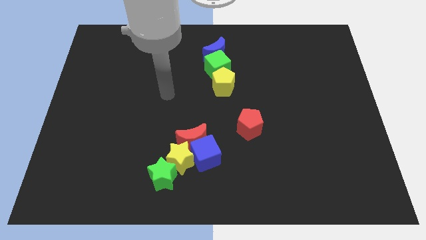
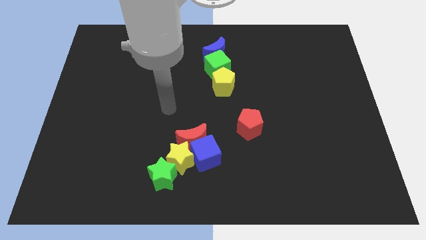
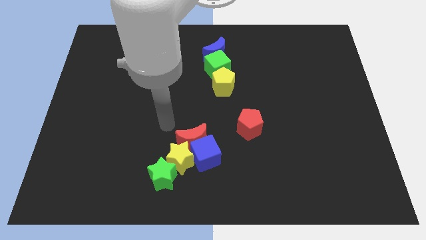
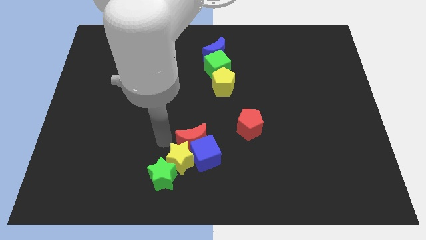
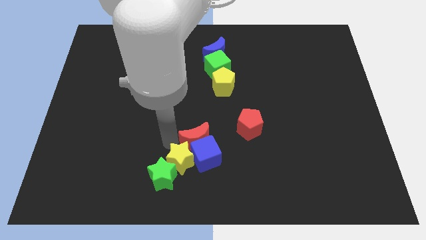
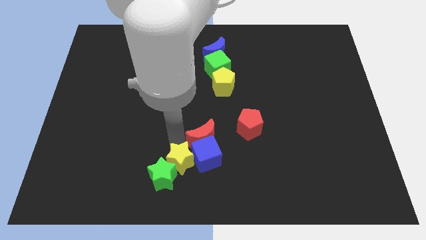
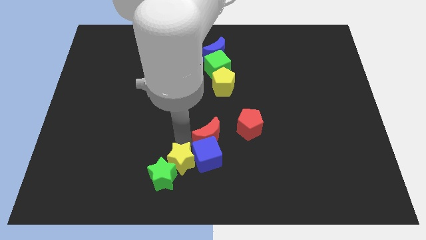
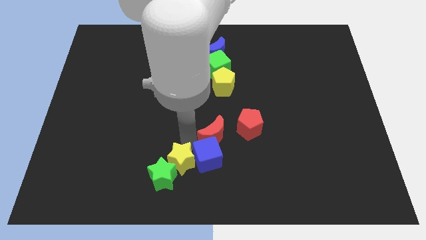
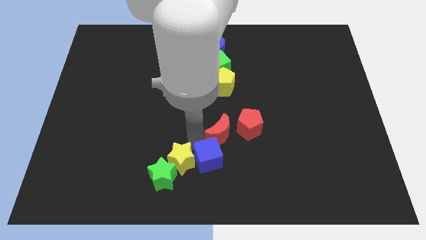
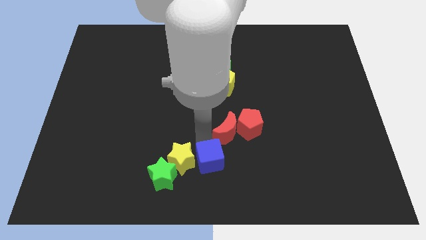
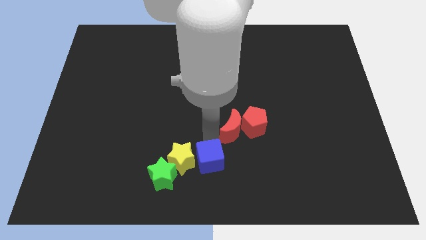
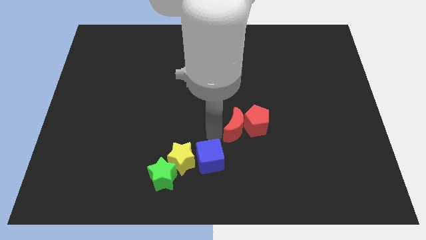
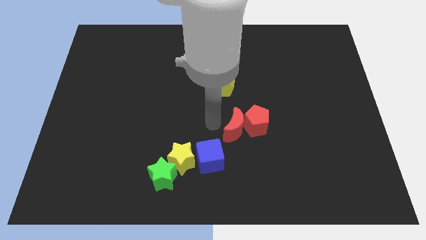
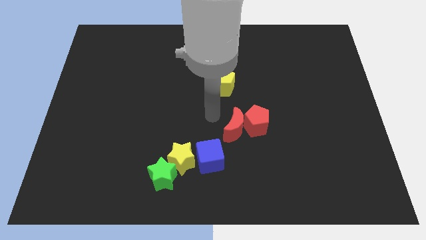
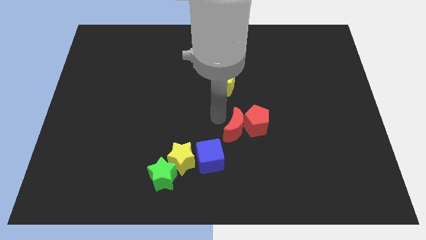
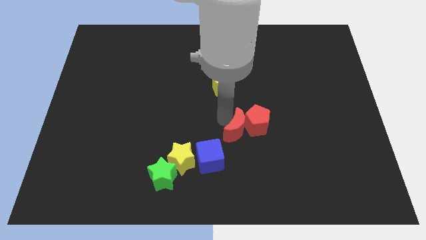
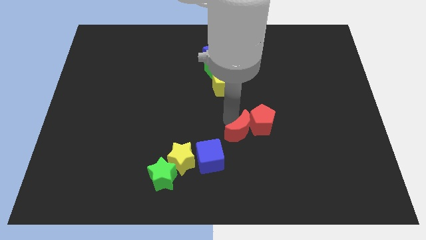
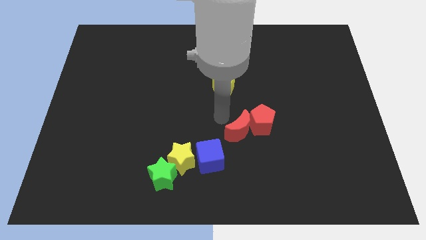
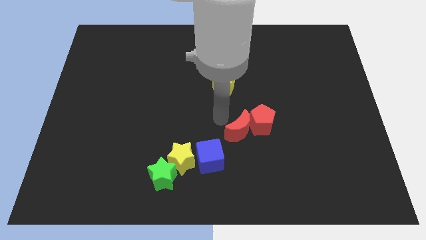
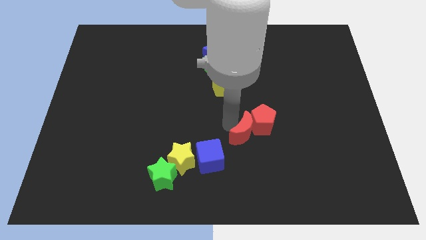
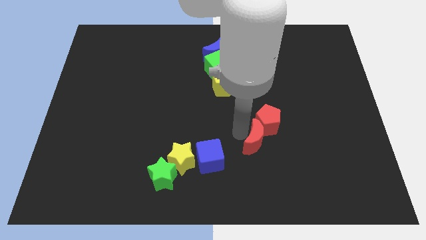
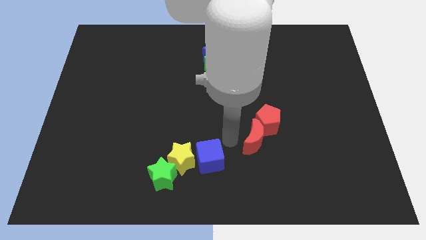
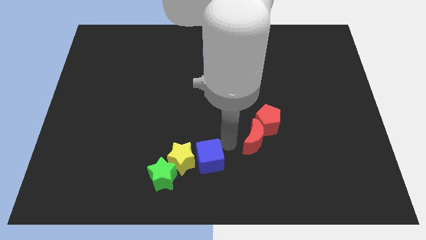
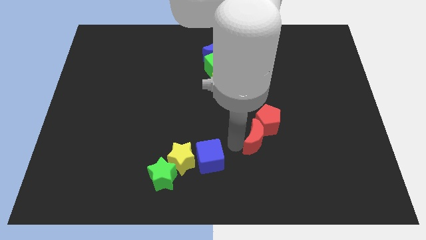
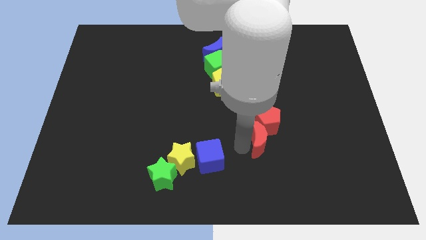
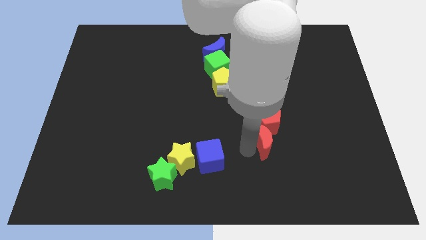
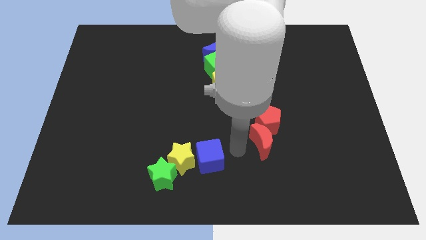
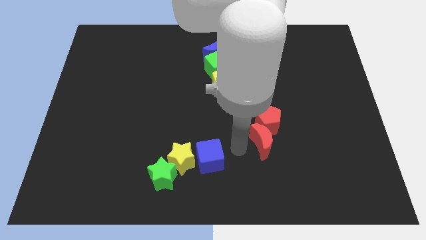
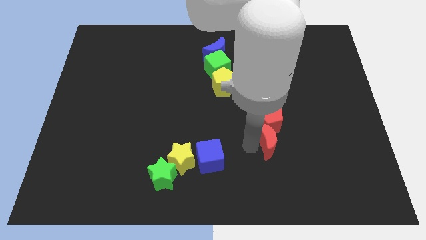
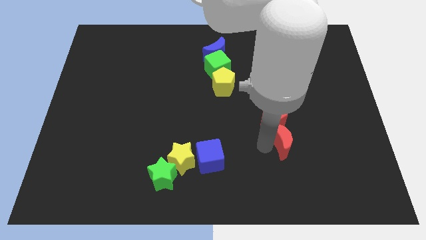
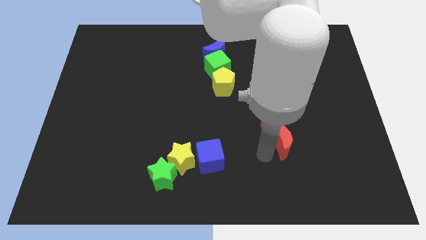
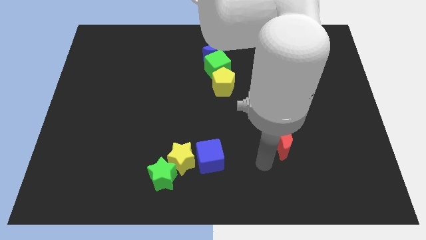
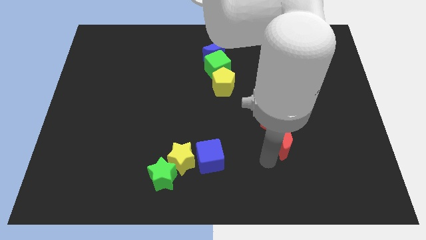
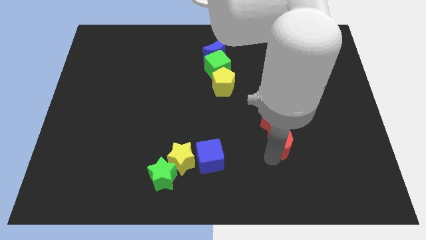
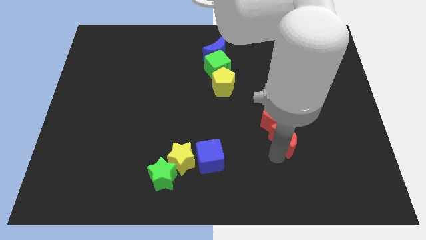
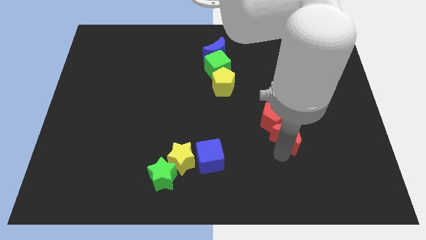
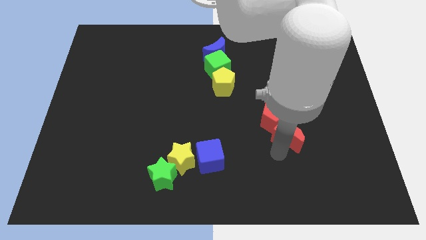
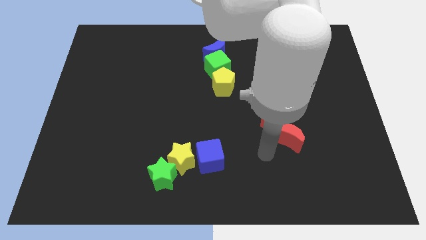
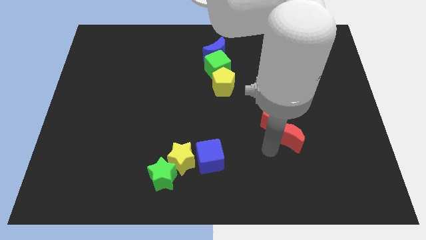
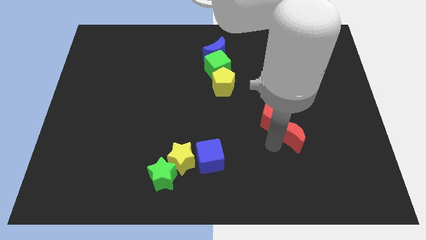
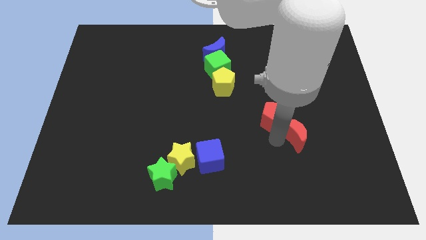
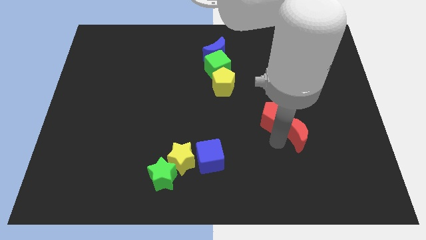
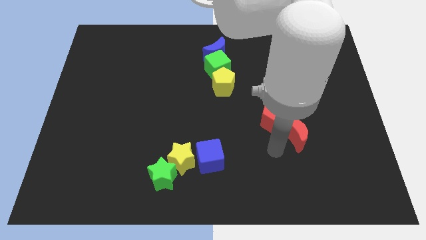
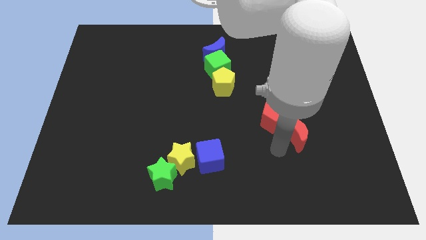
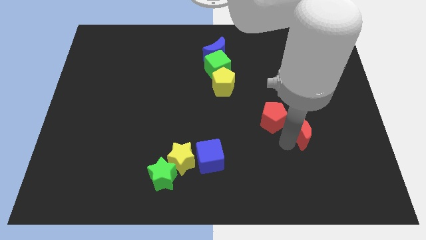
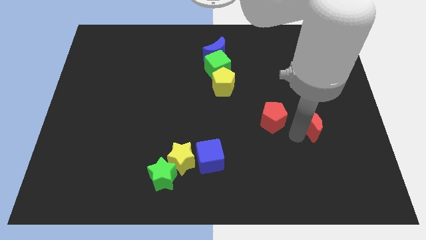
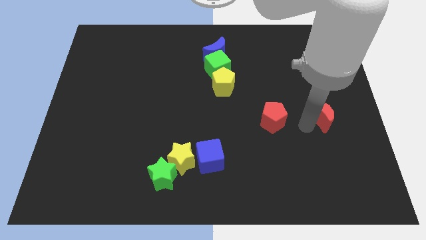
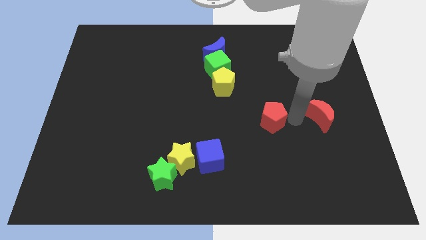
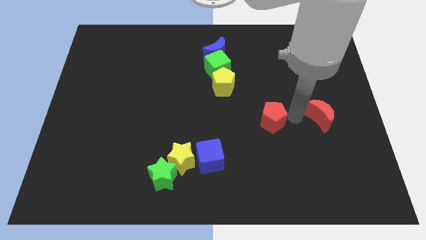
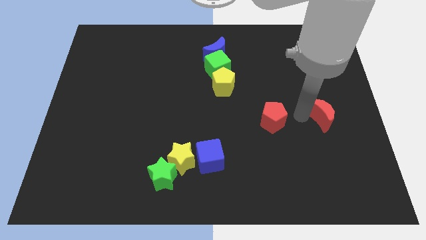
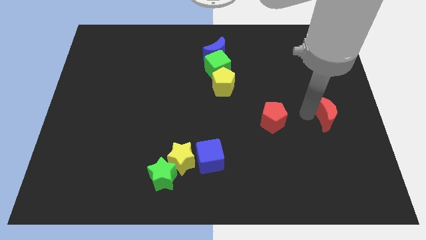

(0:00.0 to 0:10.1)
push the red moon to the right side

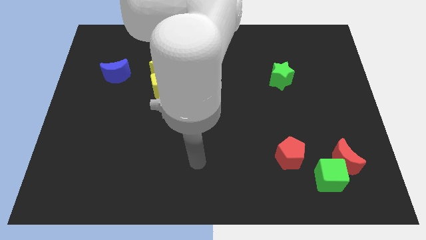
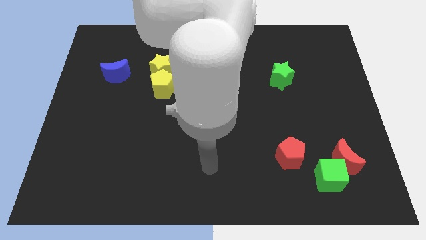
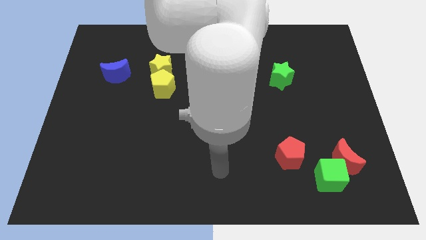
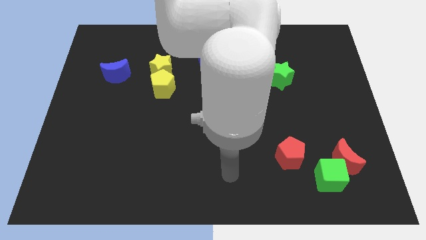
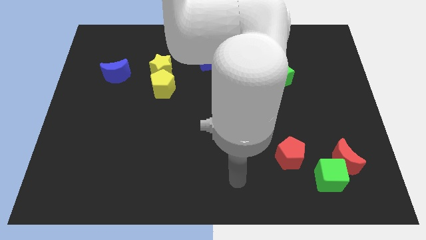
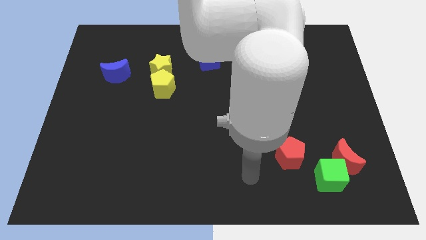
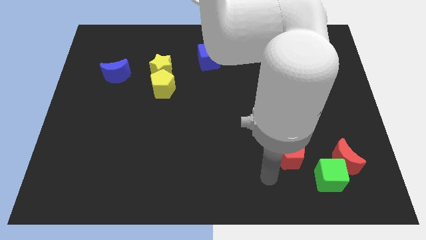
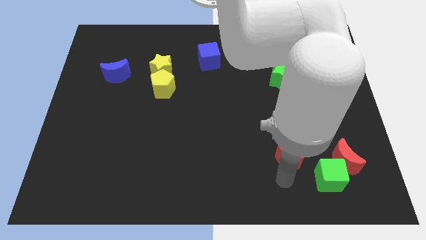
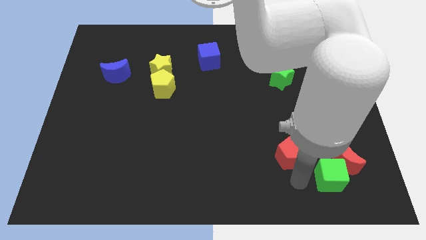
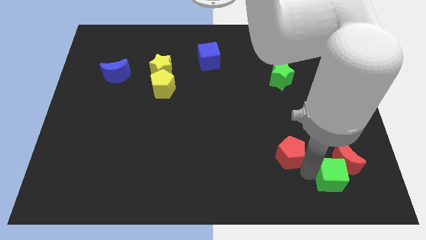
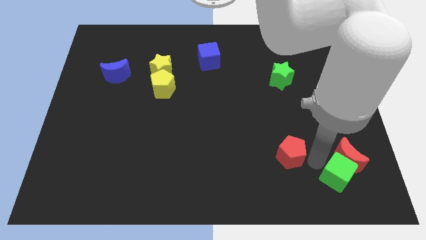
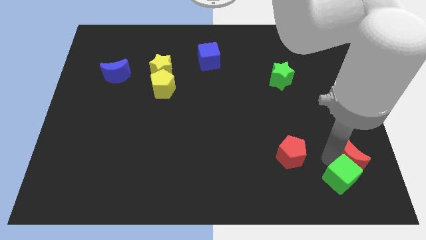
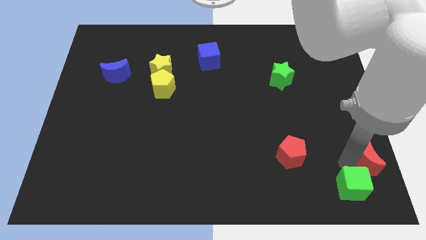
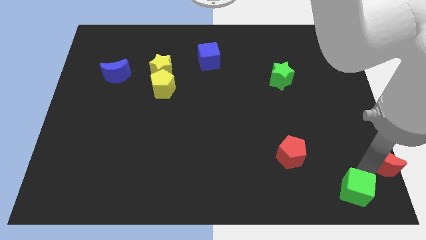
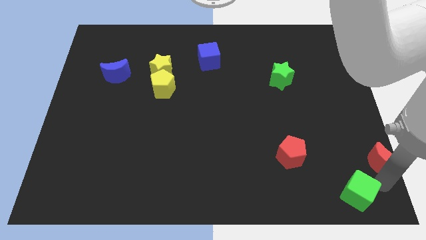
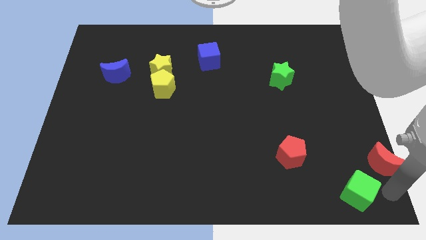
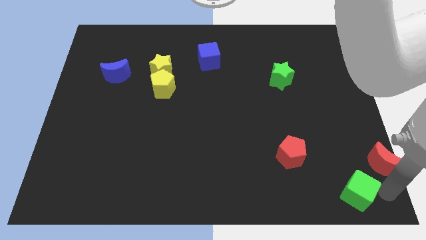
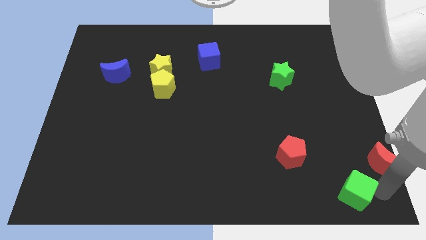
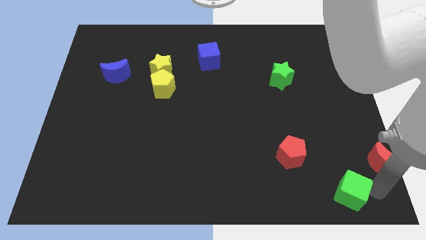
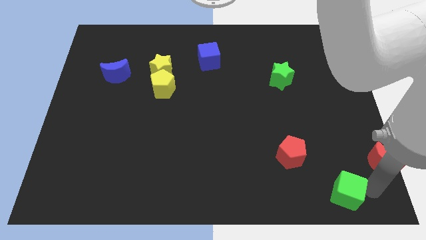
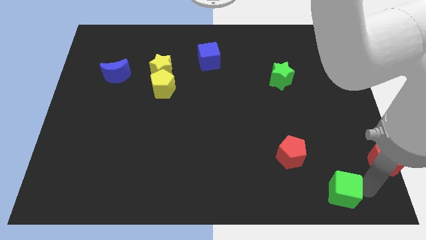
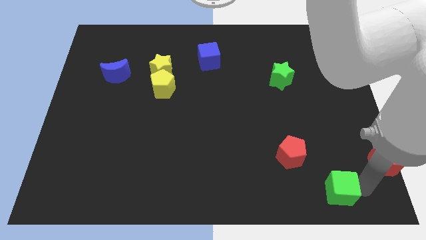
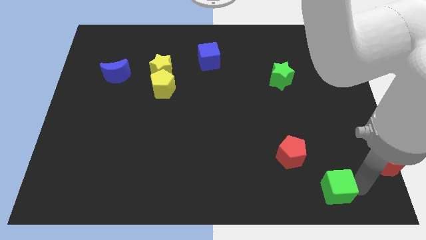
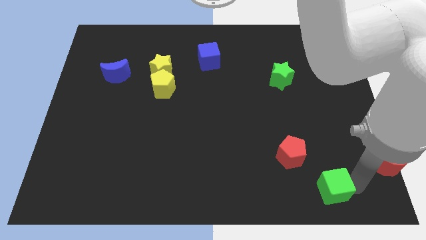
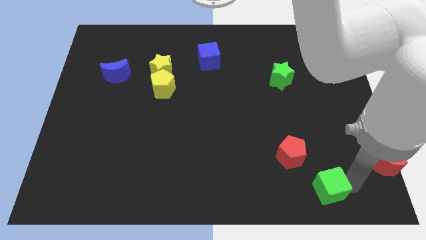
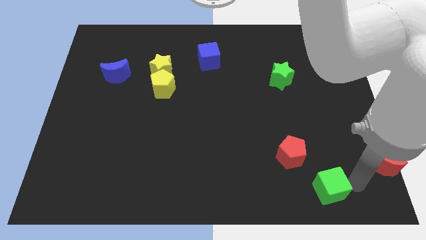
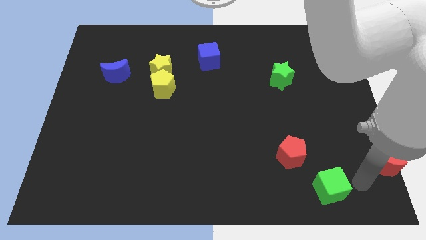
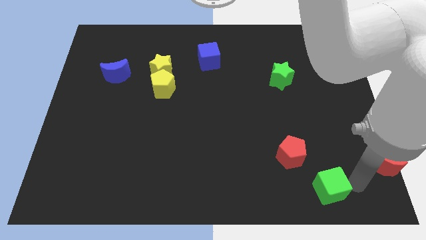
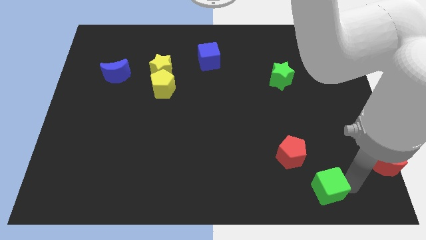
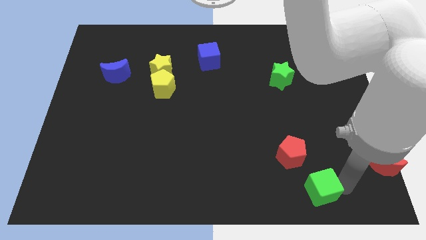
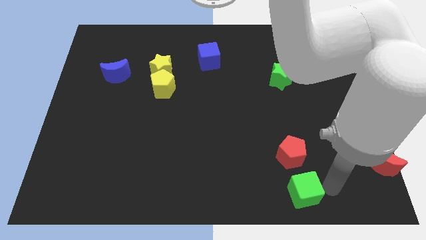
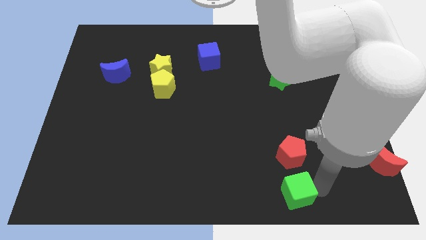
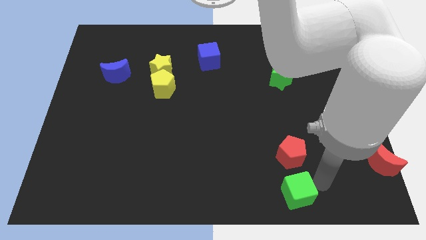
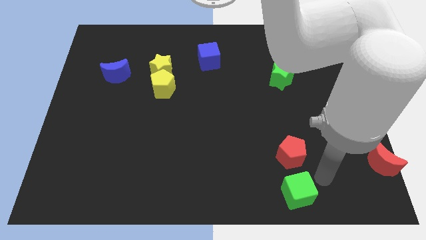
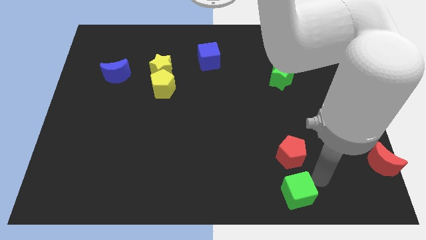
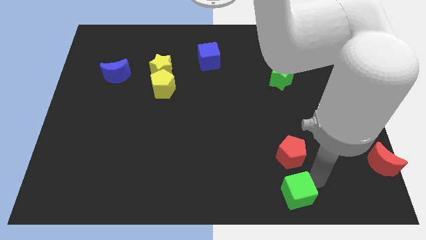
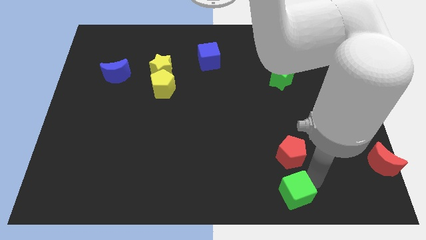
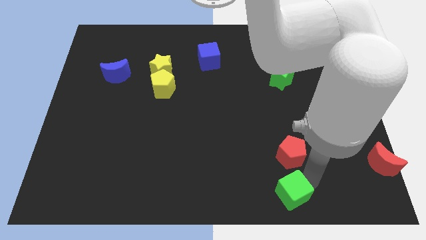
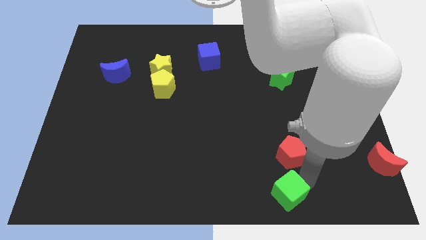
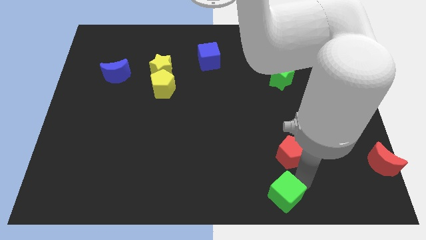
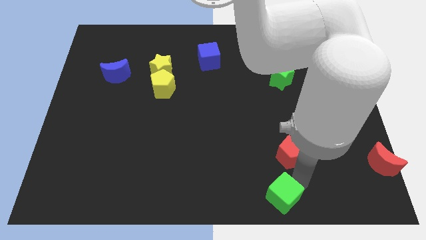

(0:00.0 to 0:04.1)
move the green cube to the bottom side
